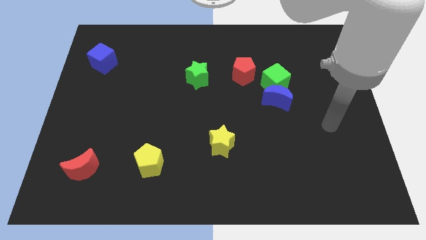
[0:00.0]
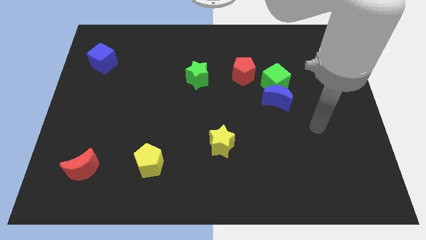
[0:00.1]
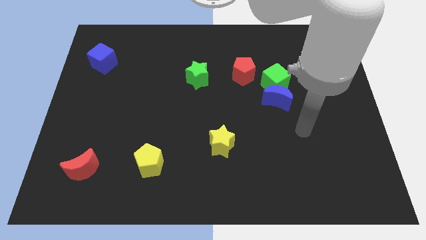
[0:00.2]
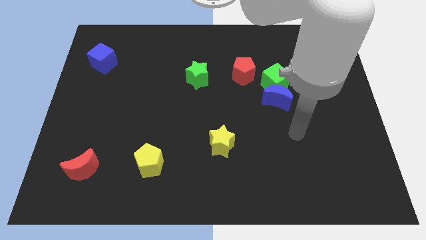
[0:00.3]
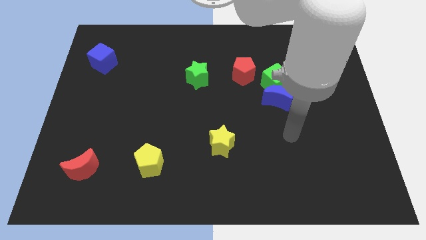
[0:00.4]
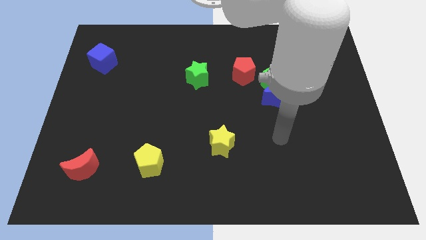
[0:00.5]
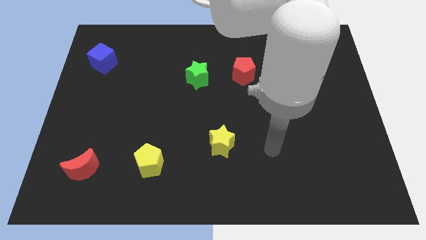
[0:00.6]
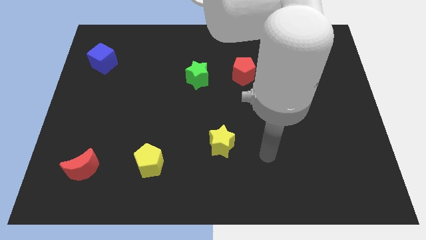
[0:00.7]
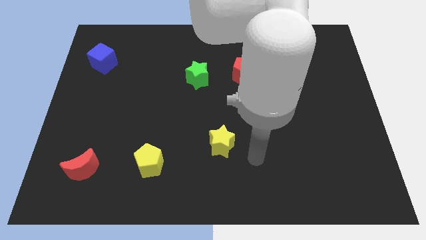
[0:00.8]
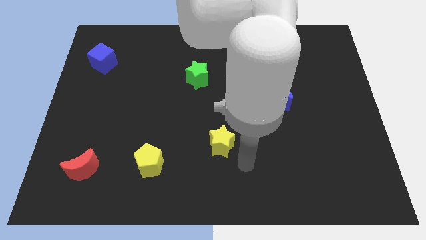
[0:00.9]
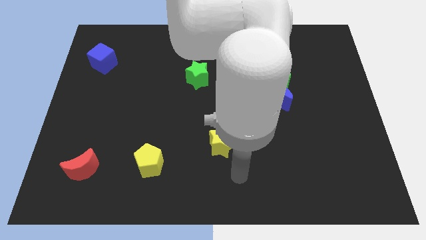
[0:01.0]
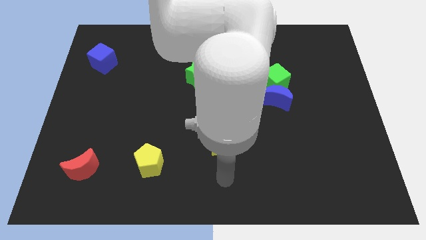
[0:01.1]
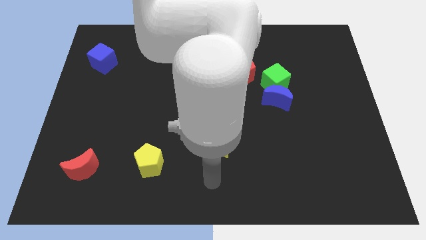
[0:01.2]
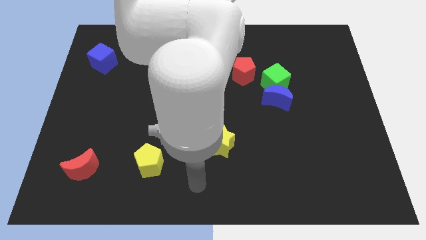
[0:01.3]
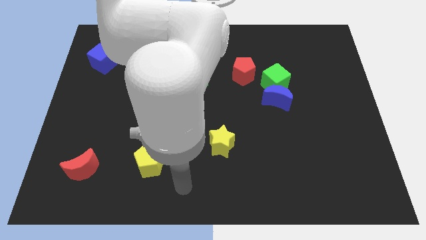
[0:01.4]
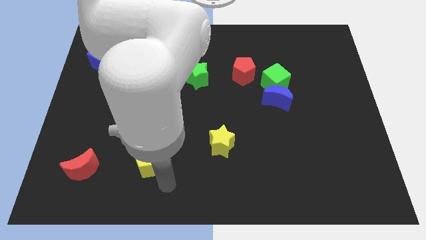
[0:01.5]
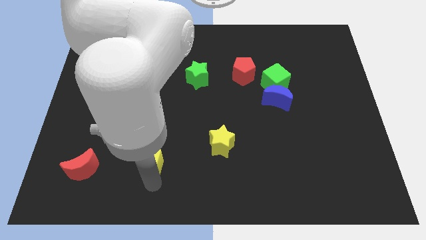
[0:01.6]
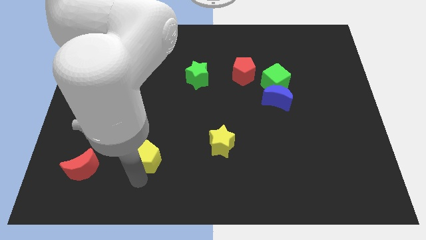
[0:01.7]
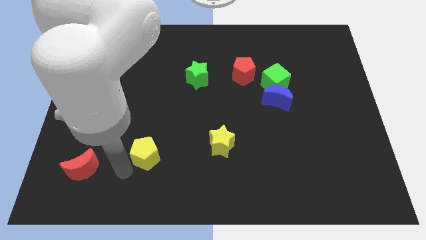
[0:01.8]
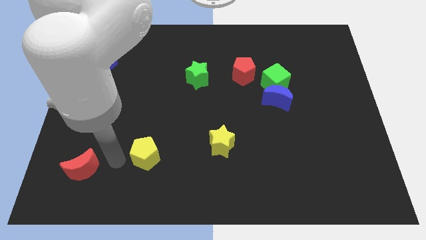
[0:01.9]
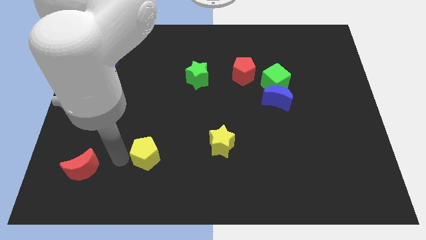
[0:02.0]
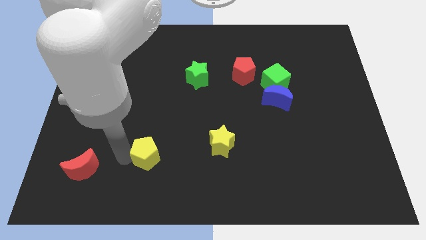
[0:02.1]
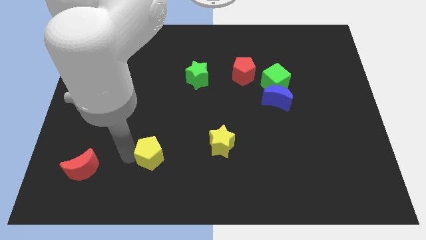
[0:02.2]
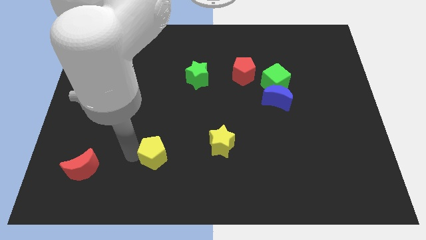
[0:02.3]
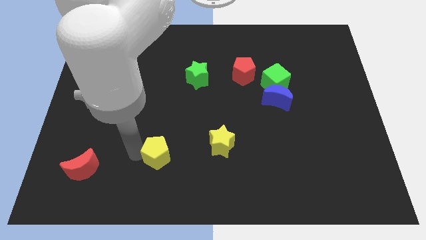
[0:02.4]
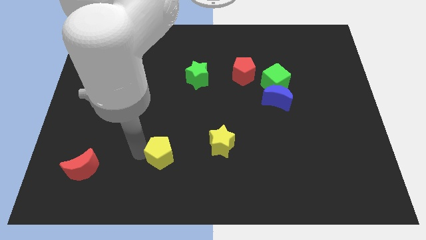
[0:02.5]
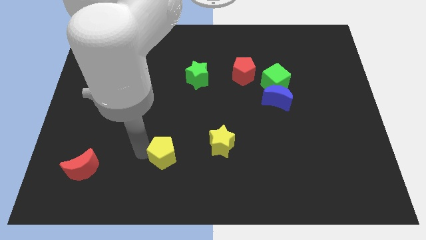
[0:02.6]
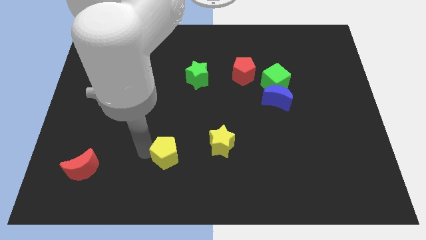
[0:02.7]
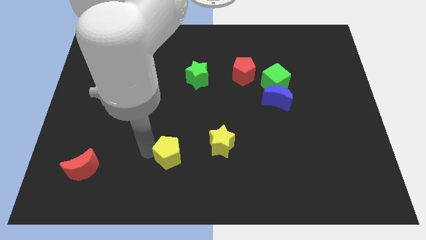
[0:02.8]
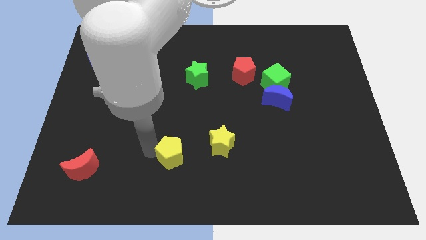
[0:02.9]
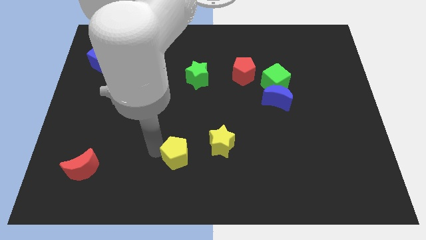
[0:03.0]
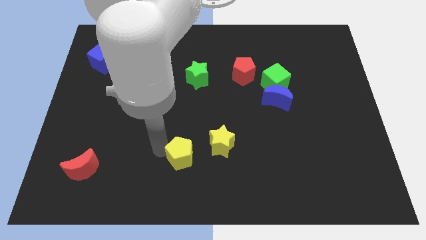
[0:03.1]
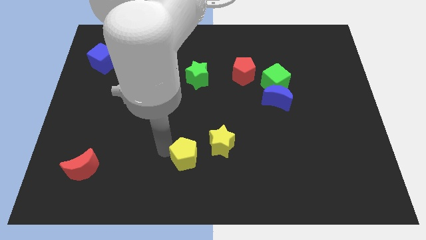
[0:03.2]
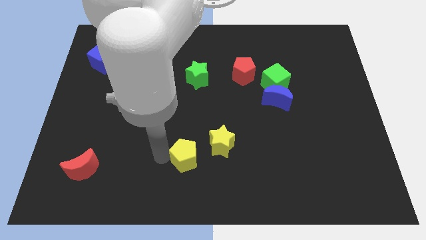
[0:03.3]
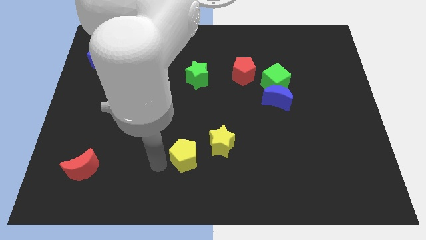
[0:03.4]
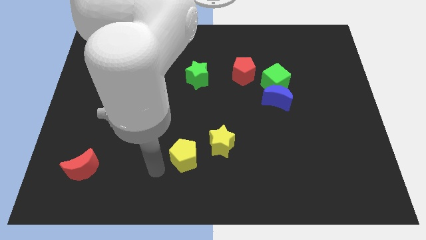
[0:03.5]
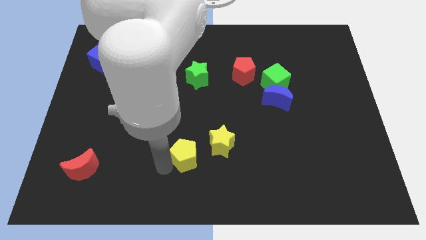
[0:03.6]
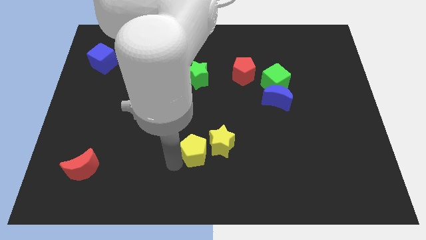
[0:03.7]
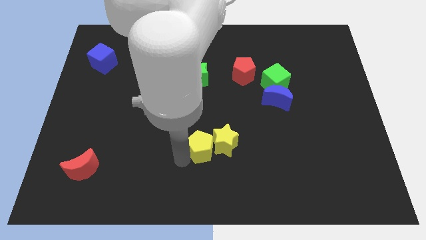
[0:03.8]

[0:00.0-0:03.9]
push the yellow pentagon next to the yellow star

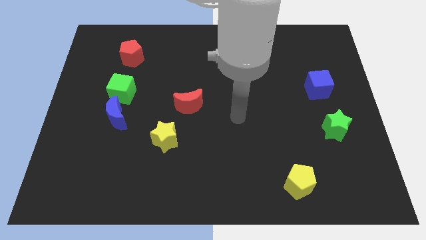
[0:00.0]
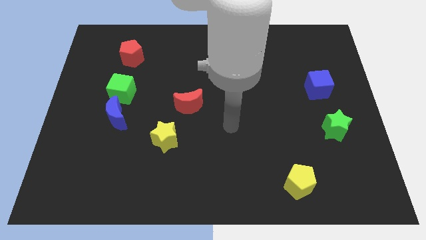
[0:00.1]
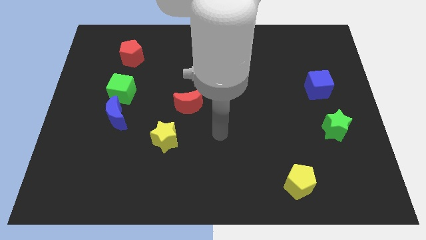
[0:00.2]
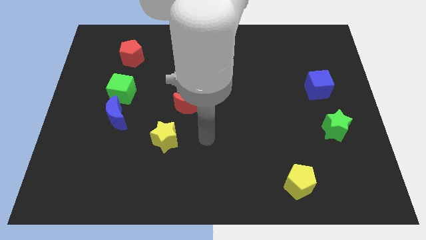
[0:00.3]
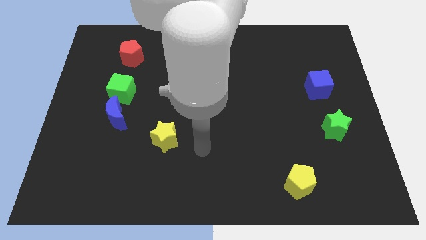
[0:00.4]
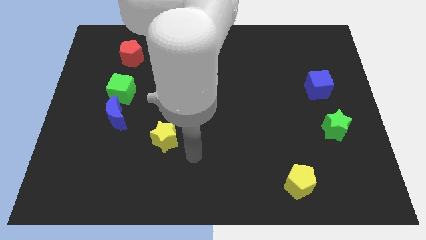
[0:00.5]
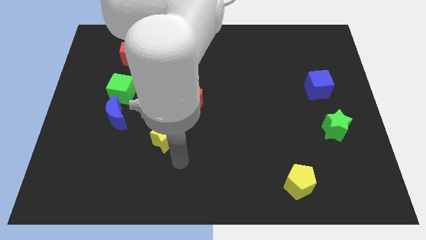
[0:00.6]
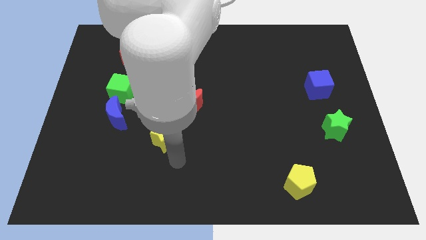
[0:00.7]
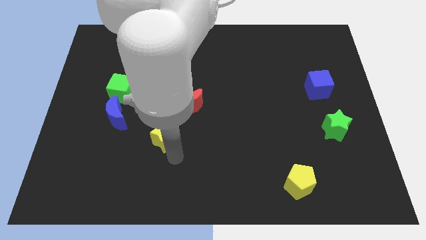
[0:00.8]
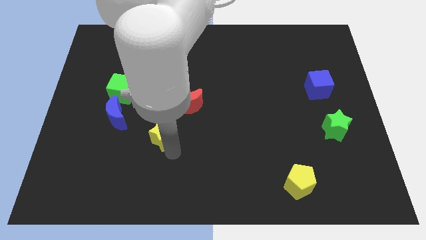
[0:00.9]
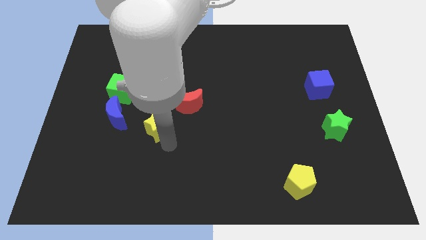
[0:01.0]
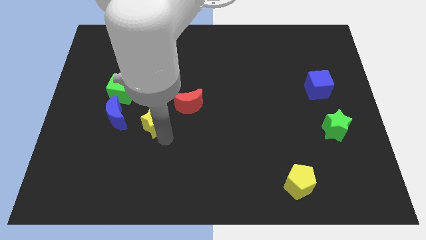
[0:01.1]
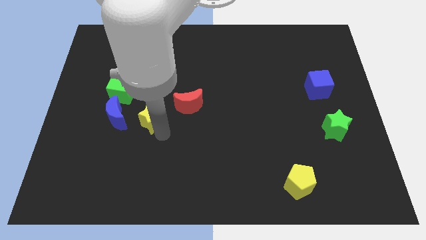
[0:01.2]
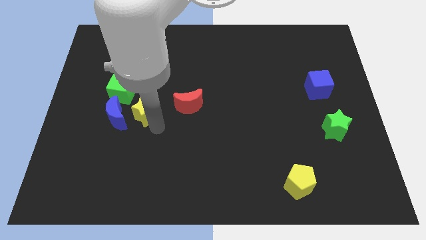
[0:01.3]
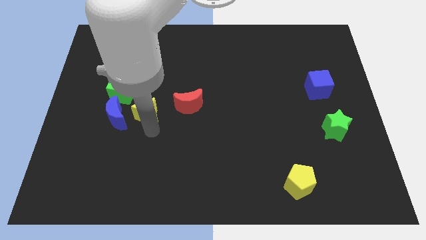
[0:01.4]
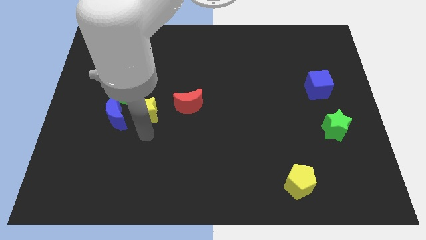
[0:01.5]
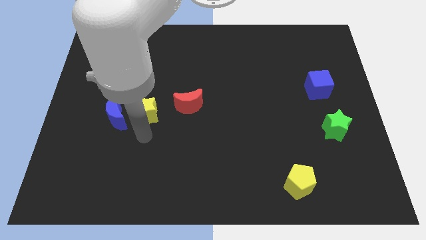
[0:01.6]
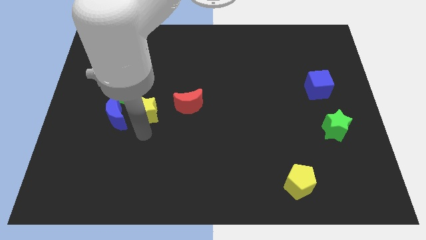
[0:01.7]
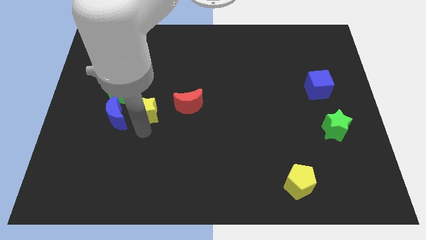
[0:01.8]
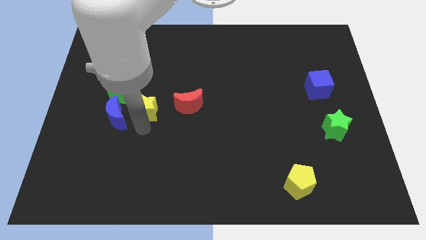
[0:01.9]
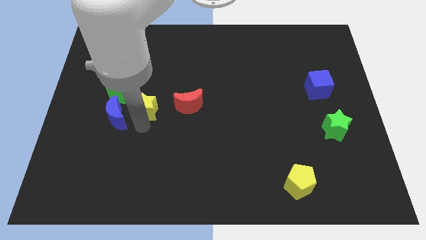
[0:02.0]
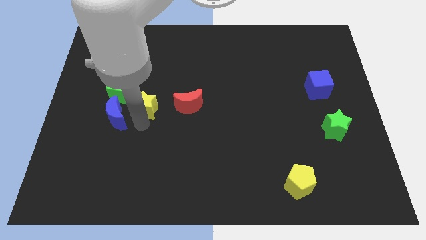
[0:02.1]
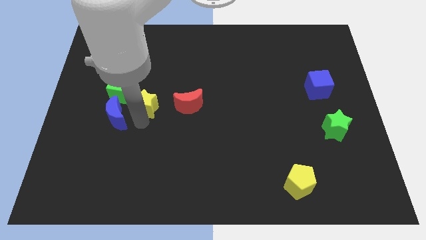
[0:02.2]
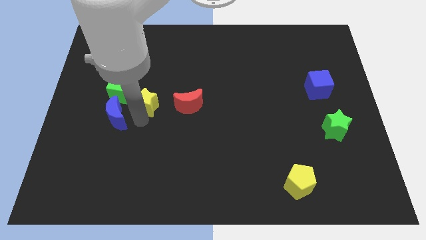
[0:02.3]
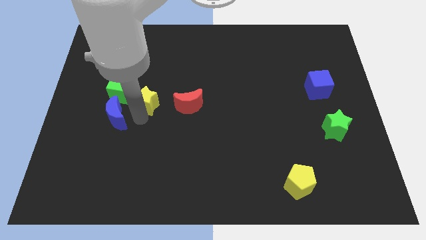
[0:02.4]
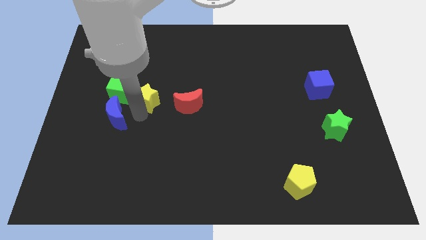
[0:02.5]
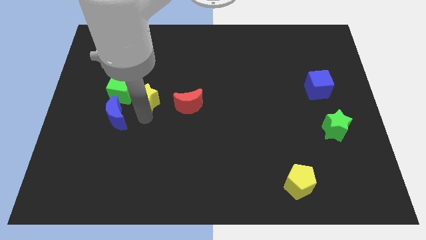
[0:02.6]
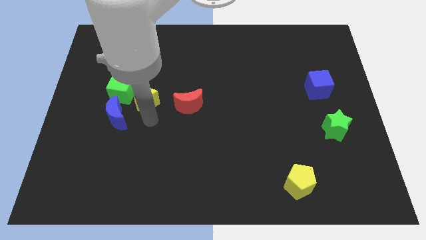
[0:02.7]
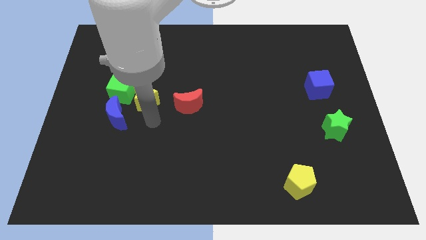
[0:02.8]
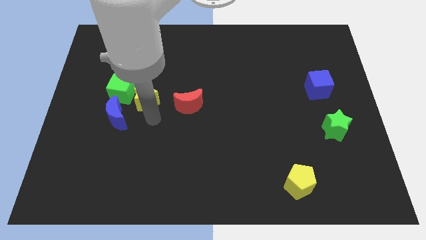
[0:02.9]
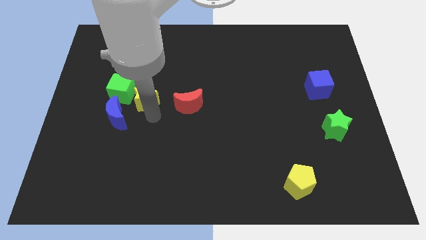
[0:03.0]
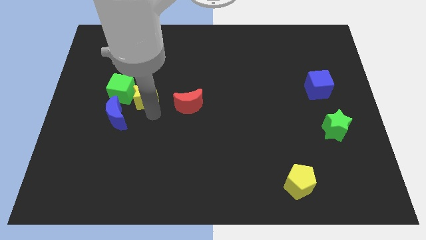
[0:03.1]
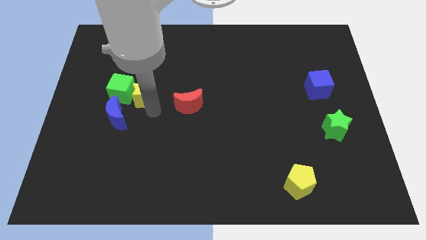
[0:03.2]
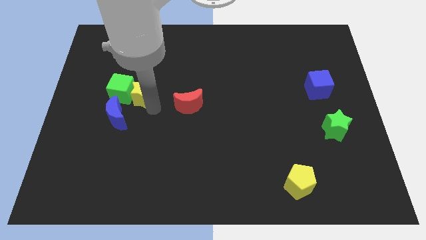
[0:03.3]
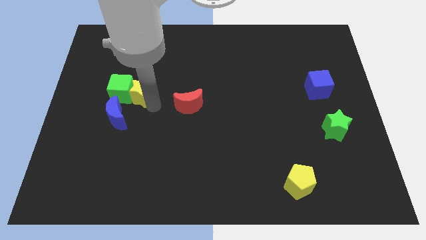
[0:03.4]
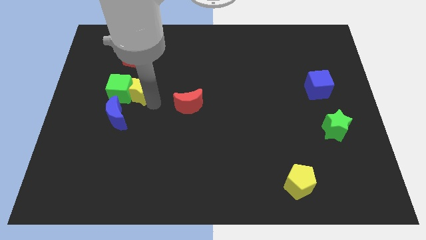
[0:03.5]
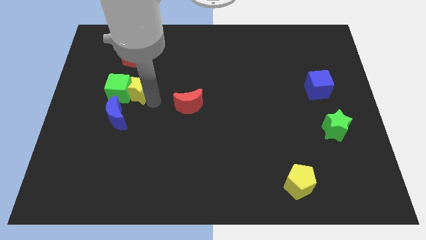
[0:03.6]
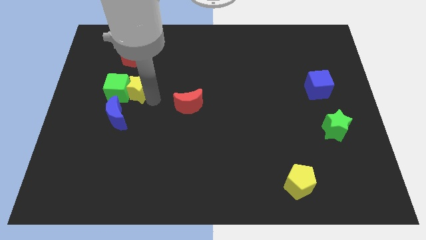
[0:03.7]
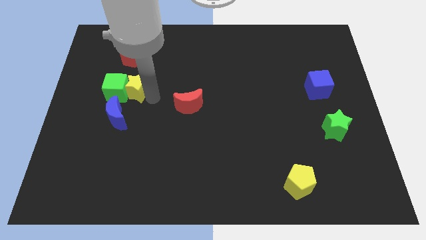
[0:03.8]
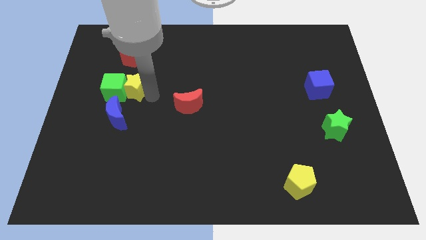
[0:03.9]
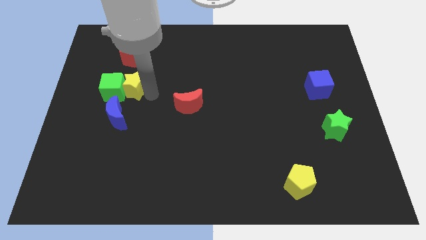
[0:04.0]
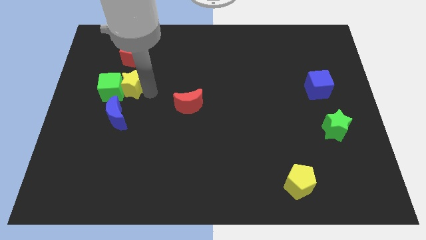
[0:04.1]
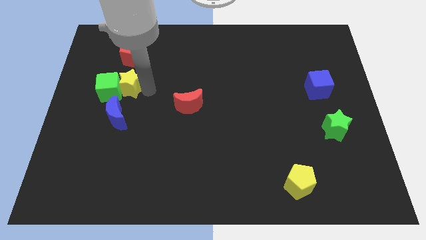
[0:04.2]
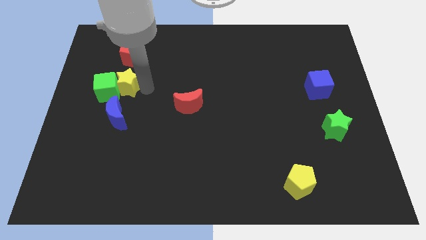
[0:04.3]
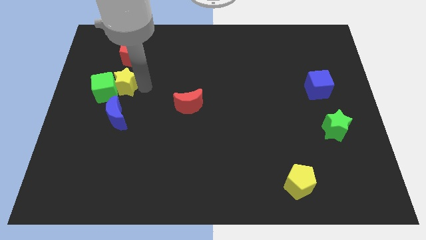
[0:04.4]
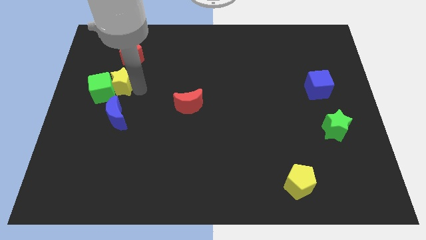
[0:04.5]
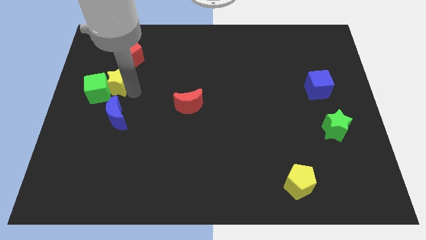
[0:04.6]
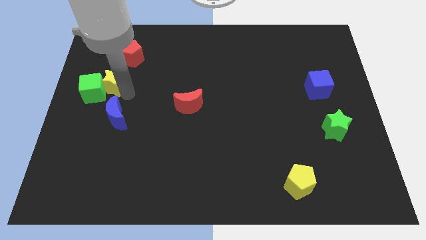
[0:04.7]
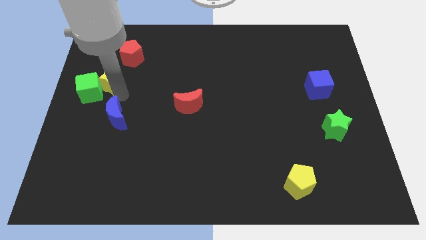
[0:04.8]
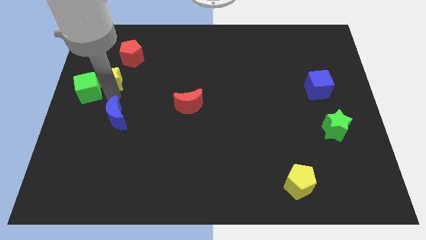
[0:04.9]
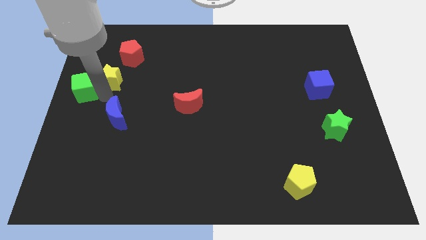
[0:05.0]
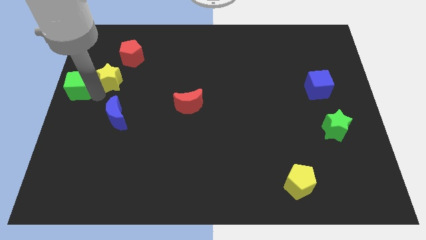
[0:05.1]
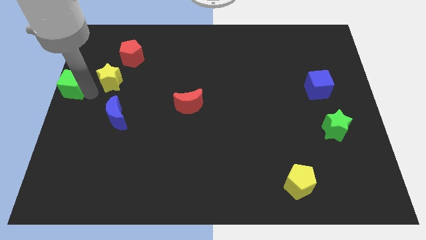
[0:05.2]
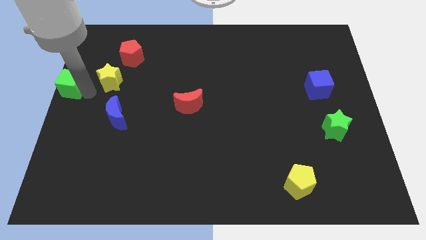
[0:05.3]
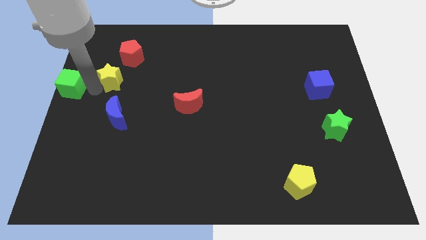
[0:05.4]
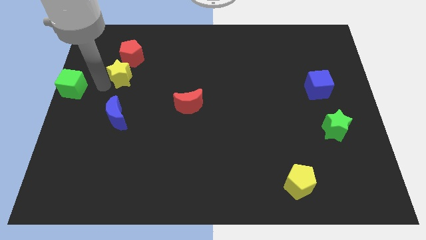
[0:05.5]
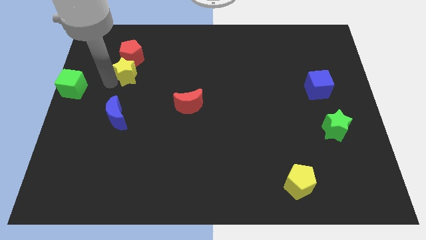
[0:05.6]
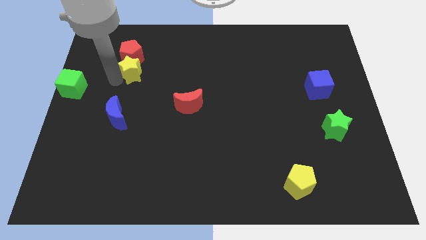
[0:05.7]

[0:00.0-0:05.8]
move the yellow star close to the red pentagon
